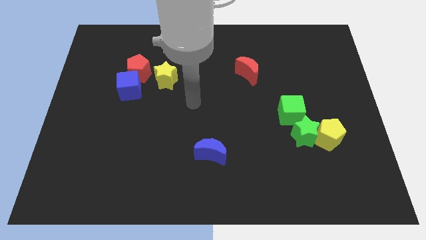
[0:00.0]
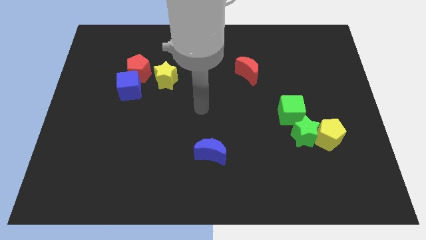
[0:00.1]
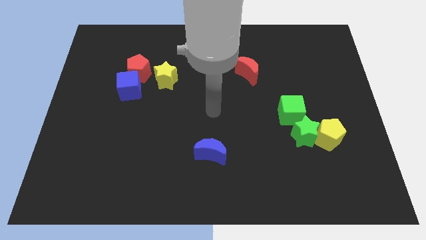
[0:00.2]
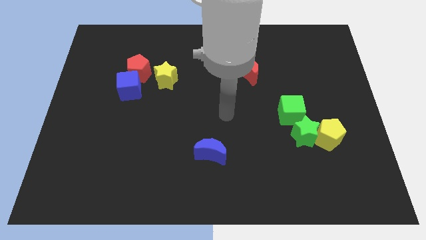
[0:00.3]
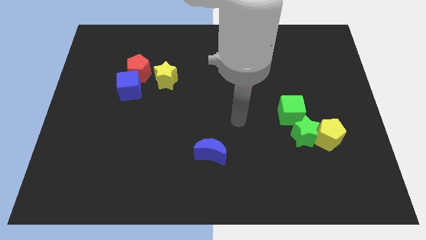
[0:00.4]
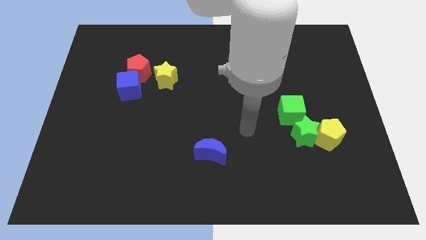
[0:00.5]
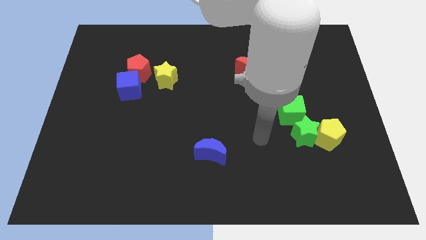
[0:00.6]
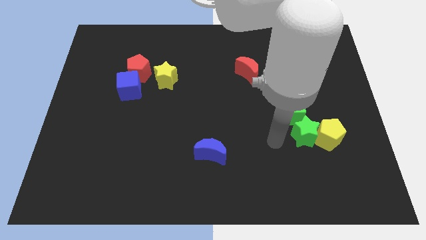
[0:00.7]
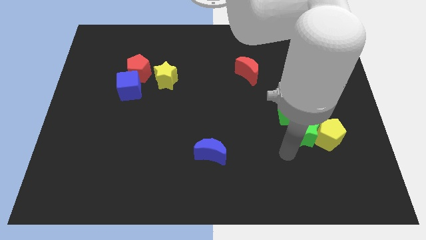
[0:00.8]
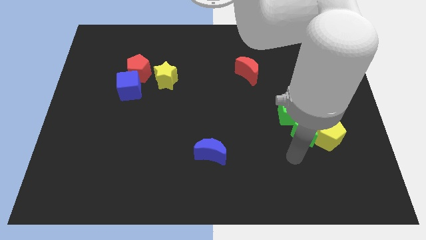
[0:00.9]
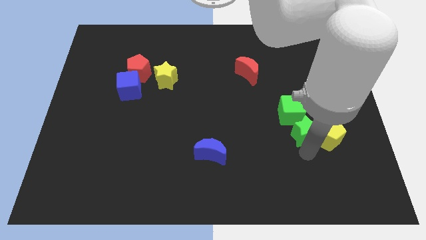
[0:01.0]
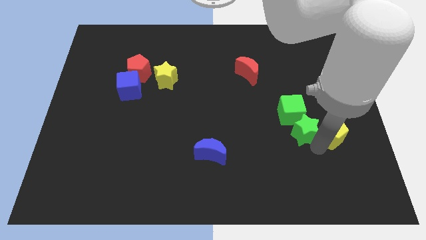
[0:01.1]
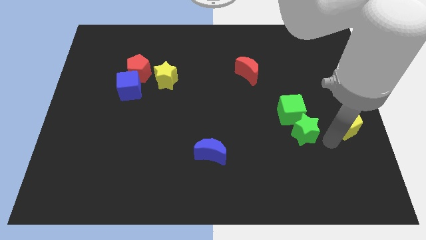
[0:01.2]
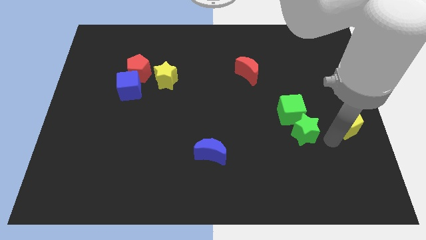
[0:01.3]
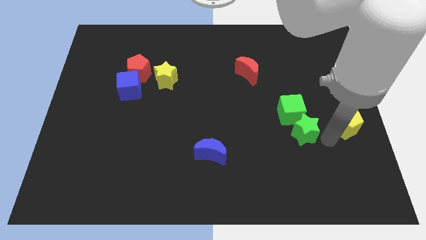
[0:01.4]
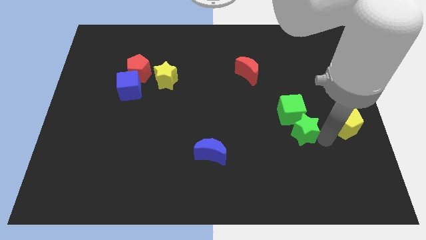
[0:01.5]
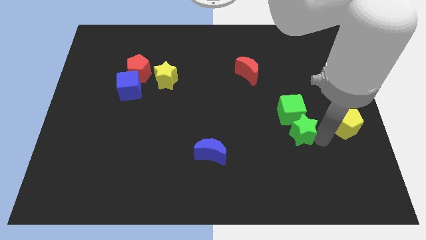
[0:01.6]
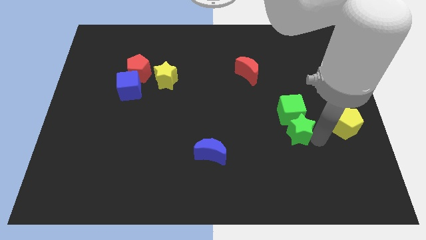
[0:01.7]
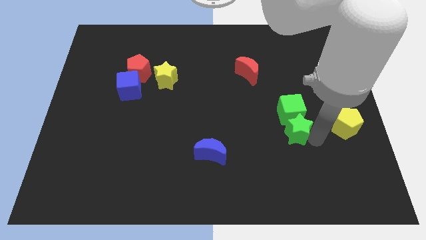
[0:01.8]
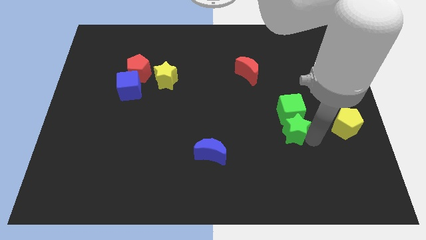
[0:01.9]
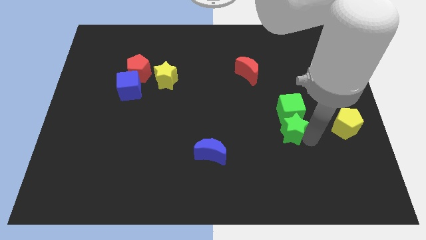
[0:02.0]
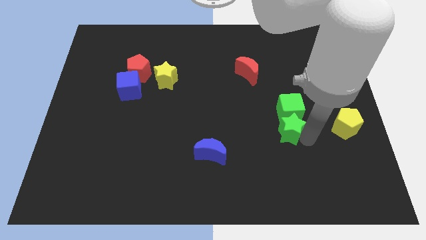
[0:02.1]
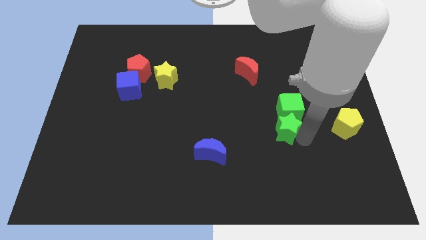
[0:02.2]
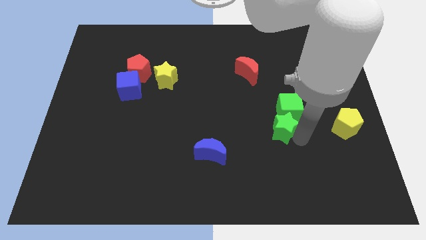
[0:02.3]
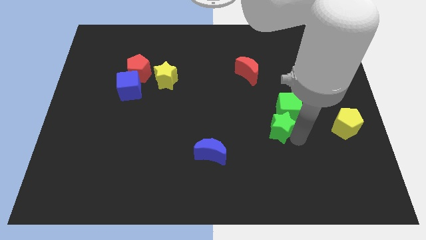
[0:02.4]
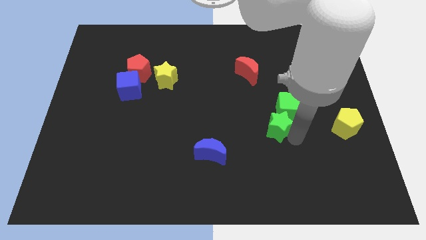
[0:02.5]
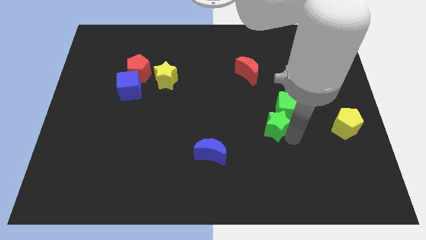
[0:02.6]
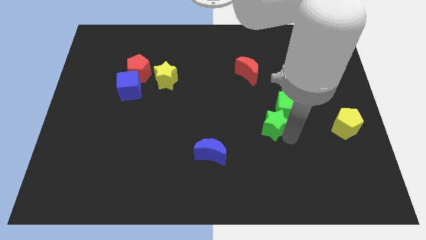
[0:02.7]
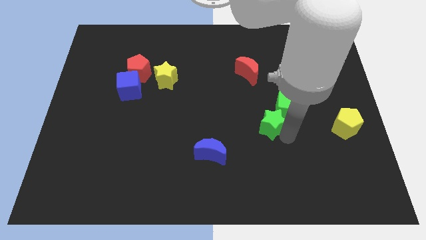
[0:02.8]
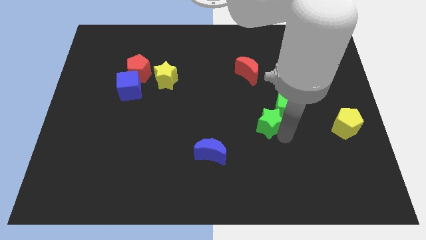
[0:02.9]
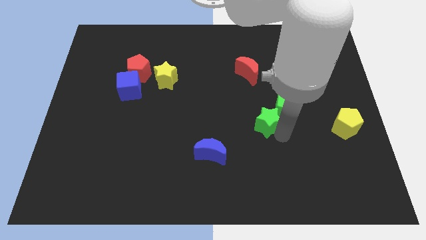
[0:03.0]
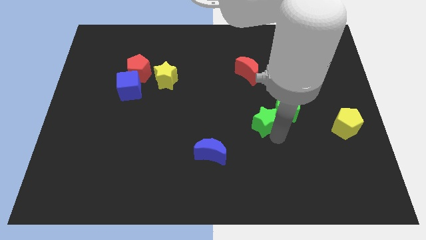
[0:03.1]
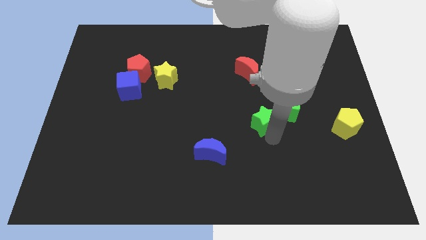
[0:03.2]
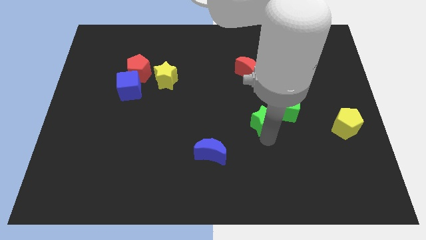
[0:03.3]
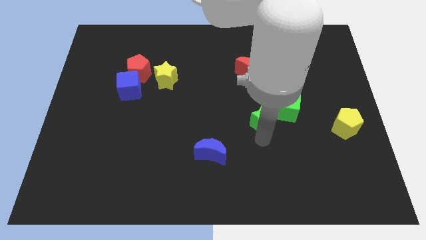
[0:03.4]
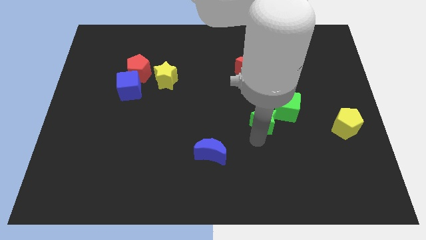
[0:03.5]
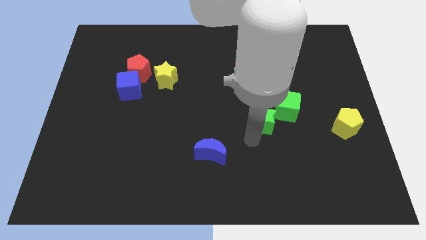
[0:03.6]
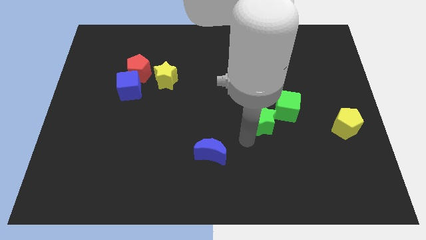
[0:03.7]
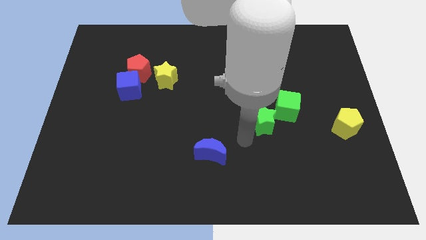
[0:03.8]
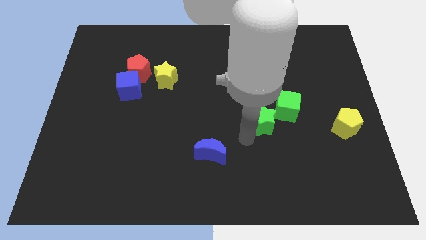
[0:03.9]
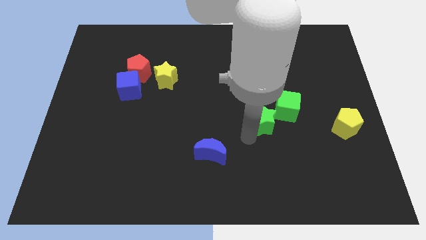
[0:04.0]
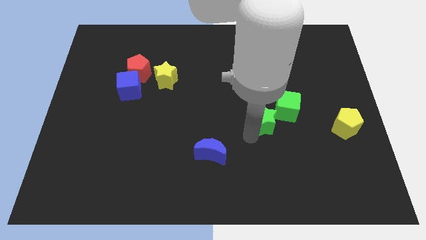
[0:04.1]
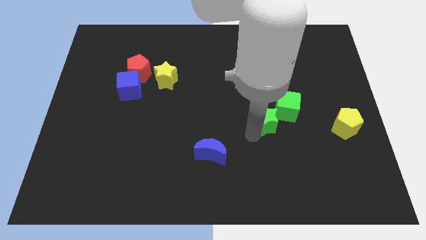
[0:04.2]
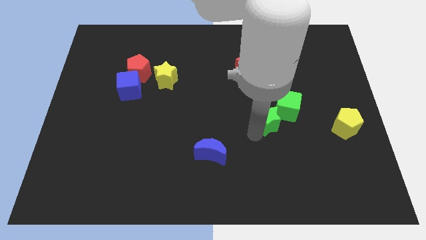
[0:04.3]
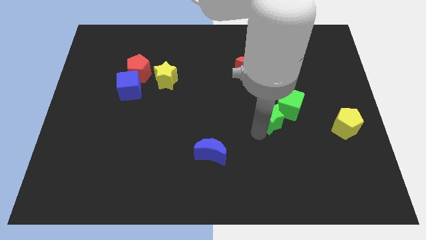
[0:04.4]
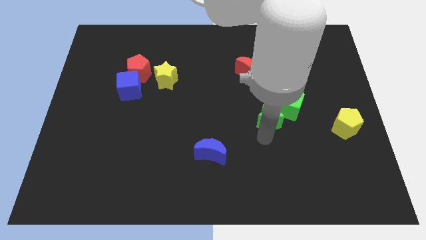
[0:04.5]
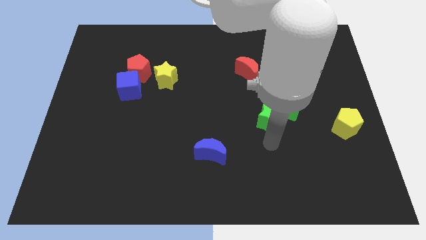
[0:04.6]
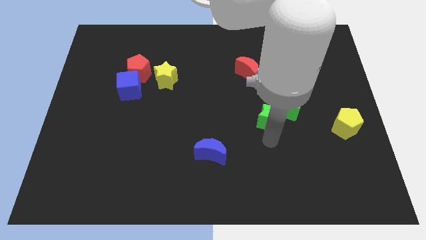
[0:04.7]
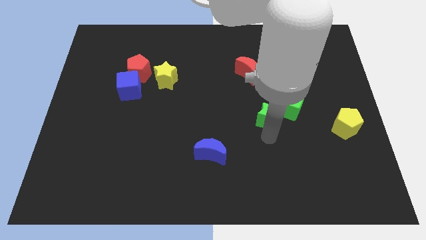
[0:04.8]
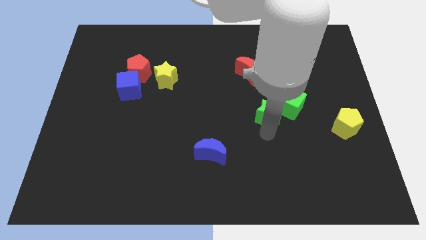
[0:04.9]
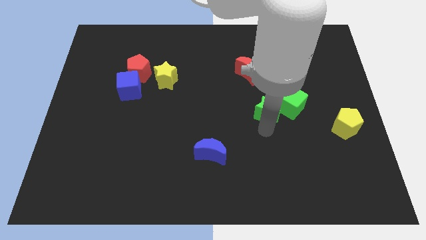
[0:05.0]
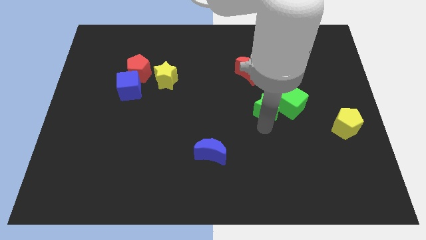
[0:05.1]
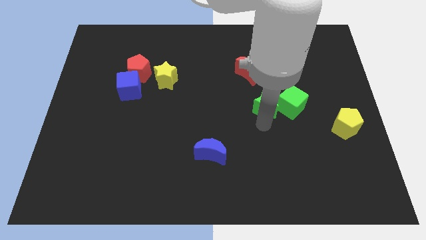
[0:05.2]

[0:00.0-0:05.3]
slide the green star to the top left side of the green cube

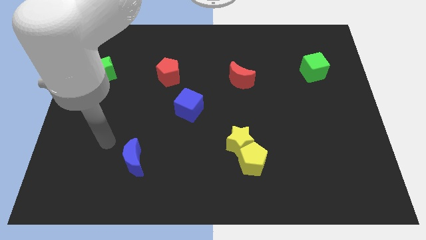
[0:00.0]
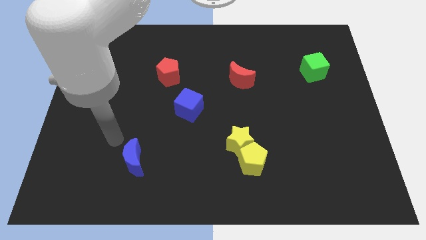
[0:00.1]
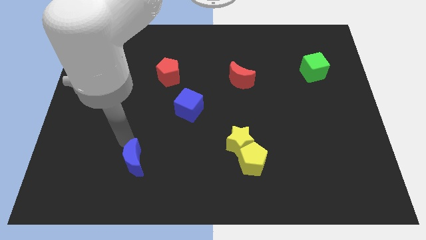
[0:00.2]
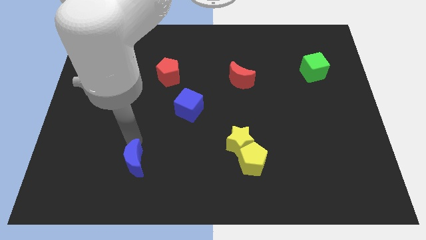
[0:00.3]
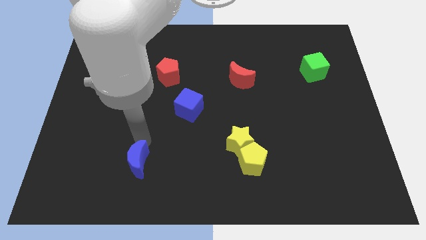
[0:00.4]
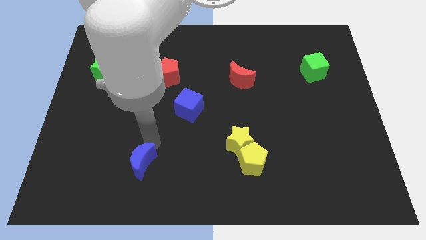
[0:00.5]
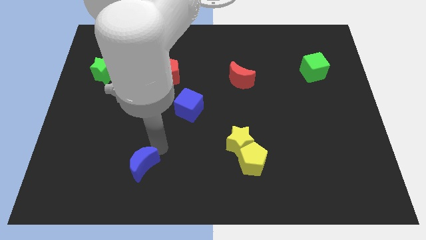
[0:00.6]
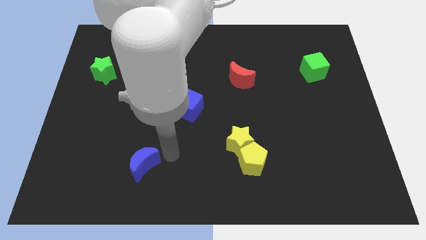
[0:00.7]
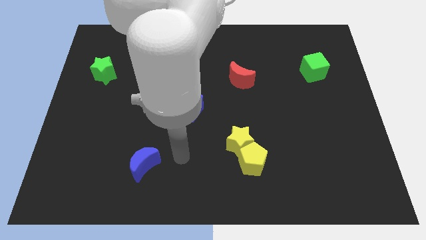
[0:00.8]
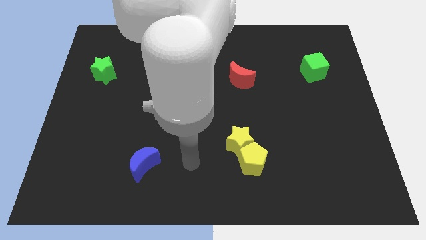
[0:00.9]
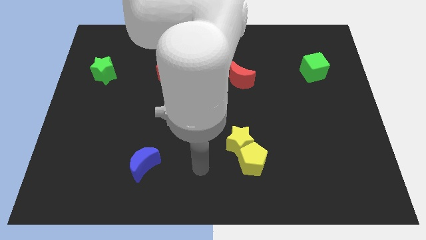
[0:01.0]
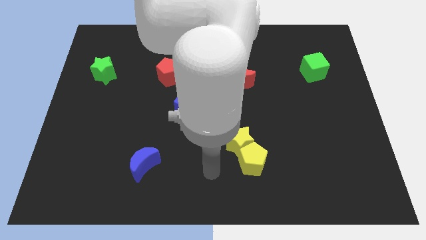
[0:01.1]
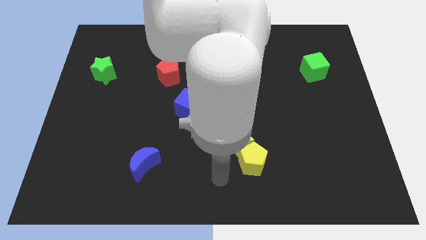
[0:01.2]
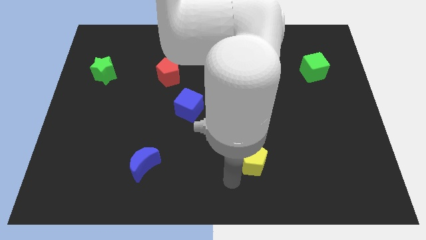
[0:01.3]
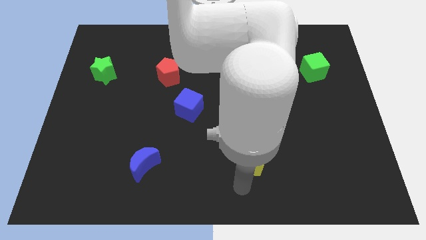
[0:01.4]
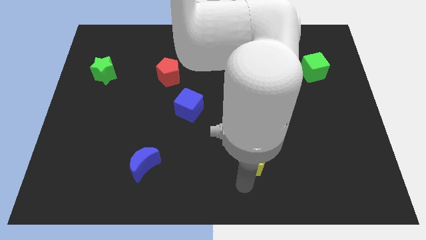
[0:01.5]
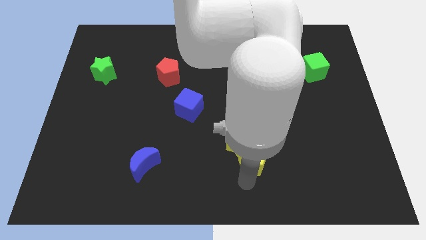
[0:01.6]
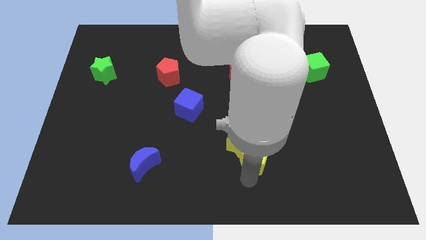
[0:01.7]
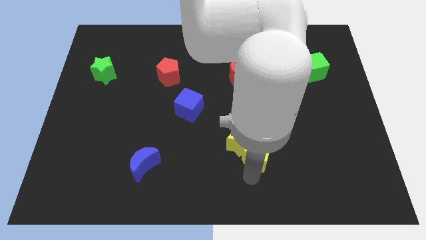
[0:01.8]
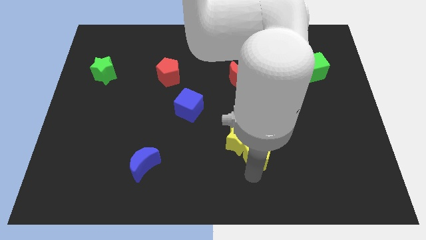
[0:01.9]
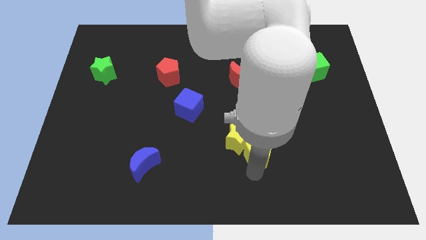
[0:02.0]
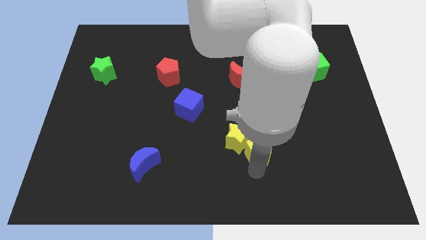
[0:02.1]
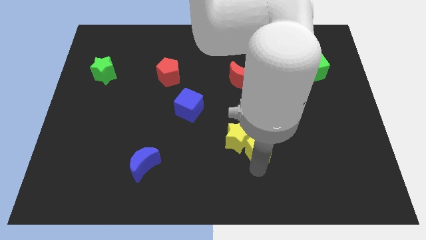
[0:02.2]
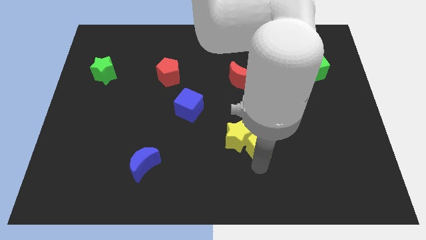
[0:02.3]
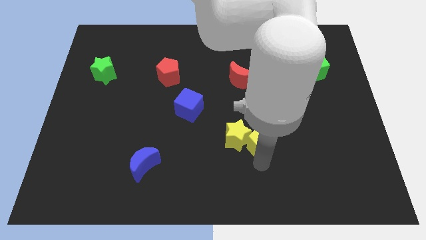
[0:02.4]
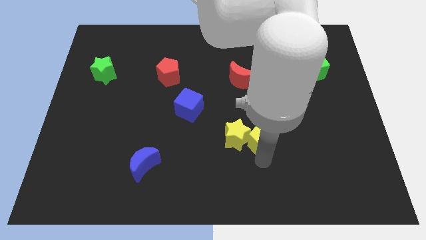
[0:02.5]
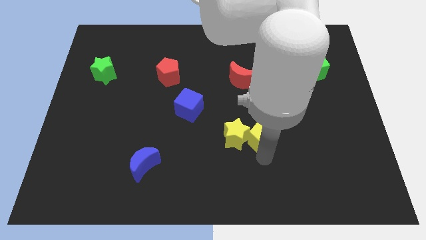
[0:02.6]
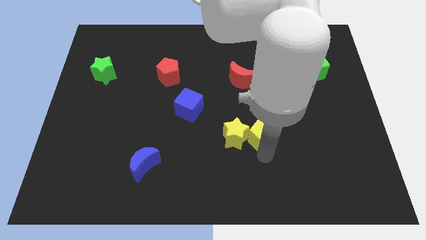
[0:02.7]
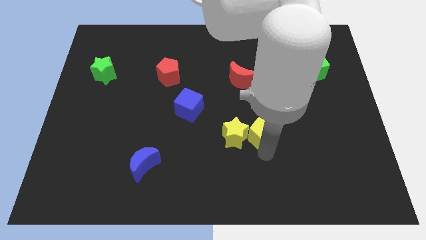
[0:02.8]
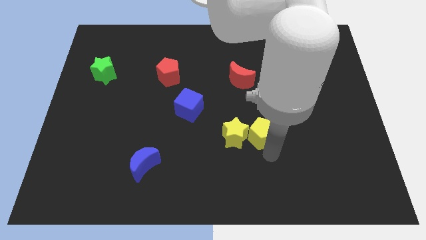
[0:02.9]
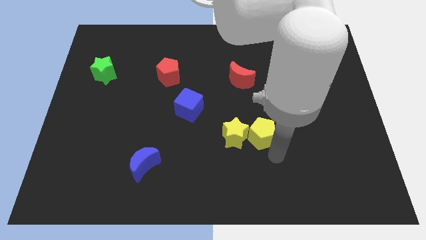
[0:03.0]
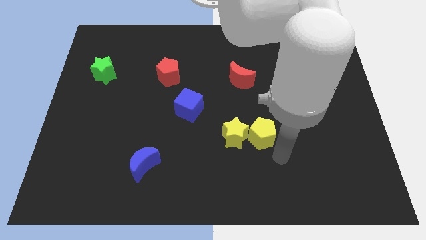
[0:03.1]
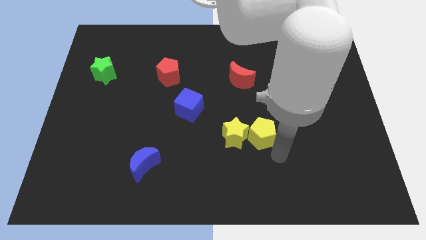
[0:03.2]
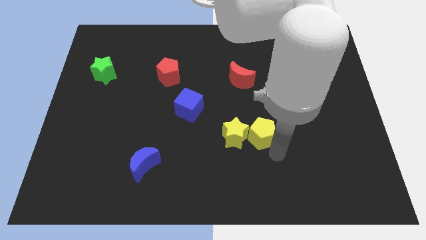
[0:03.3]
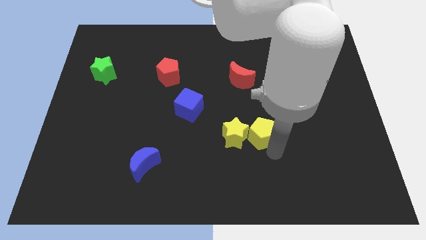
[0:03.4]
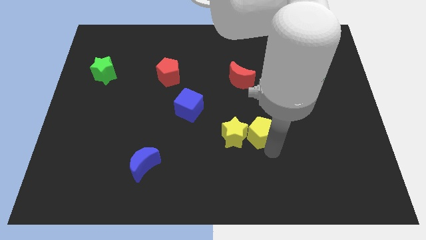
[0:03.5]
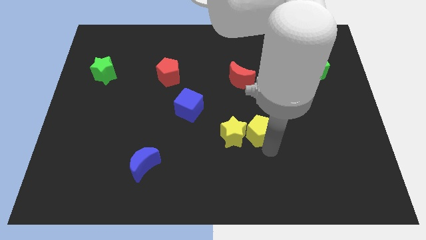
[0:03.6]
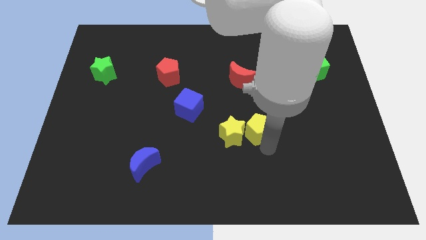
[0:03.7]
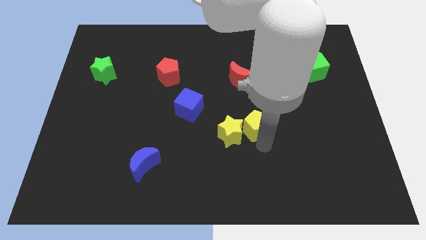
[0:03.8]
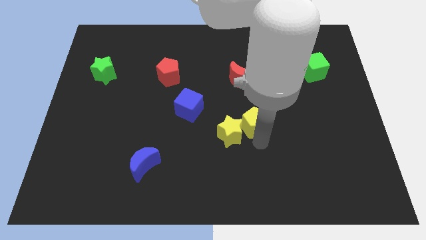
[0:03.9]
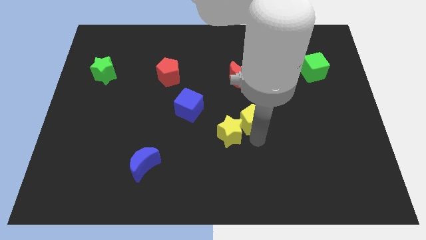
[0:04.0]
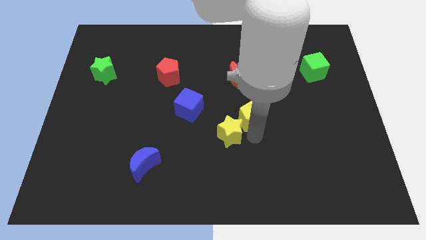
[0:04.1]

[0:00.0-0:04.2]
move the yellow pentagon to the top of the yellow star
